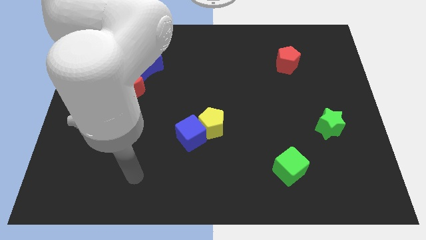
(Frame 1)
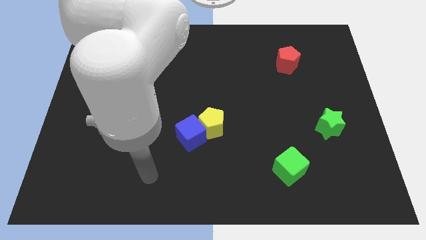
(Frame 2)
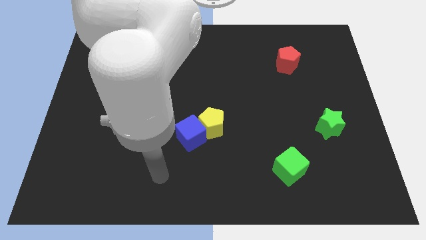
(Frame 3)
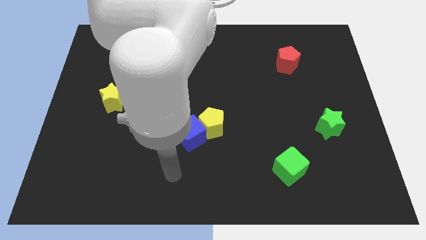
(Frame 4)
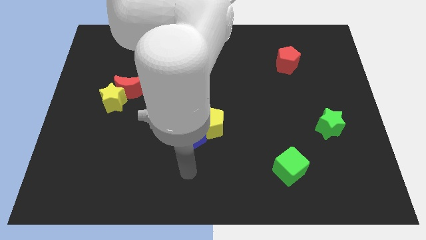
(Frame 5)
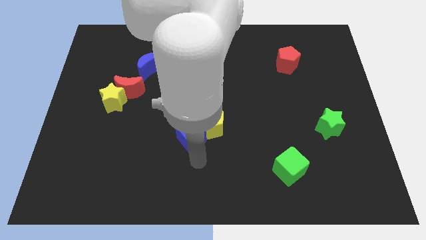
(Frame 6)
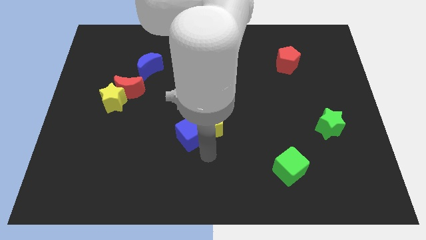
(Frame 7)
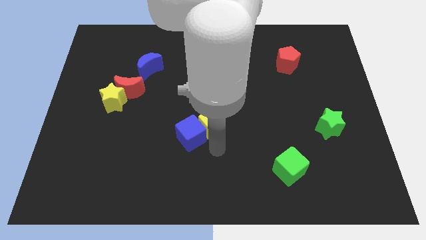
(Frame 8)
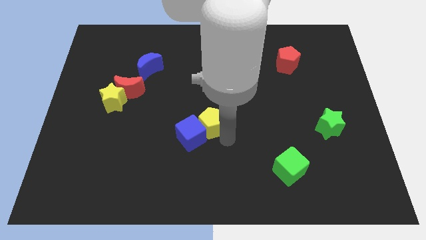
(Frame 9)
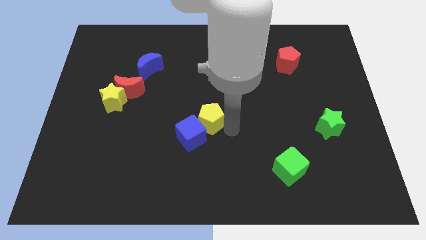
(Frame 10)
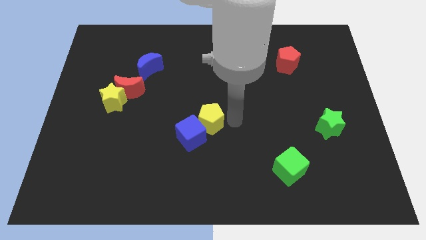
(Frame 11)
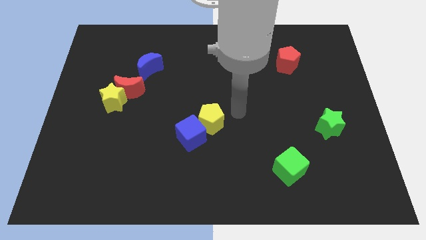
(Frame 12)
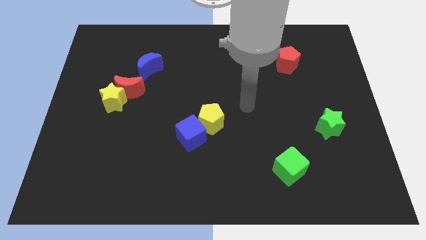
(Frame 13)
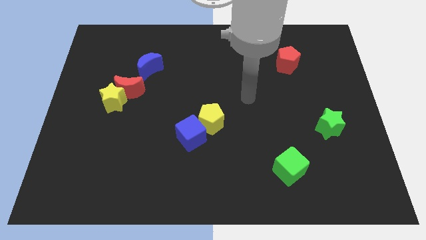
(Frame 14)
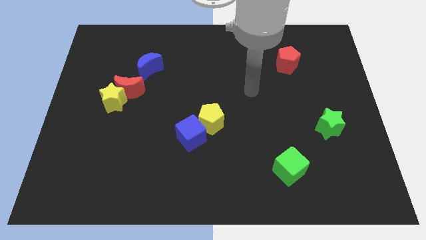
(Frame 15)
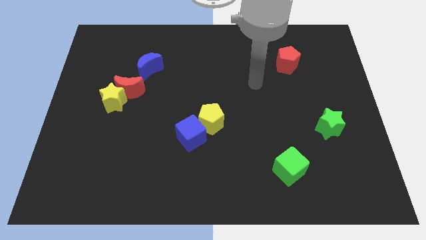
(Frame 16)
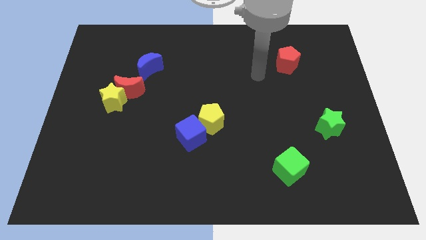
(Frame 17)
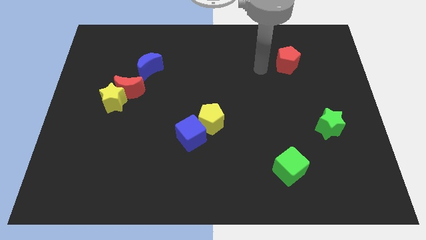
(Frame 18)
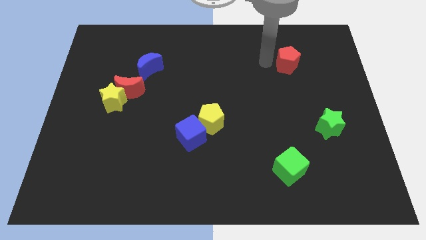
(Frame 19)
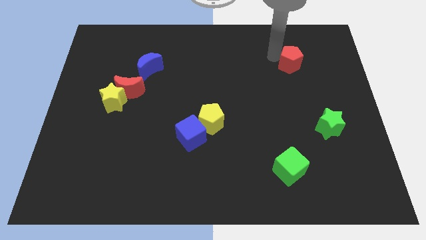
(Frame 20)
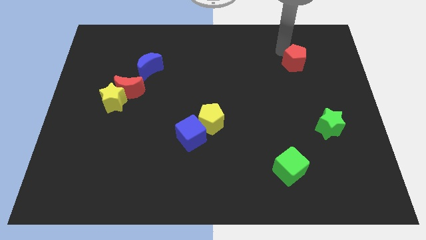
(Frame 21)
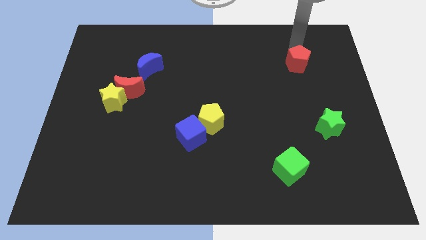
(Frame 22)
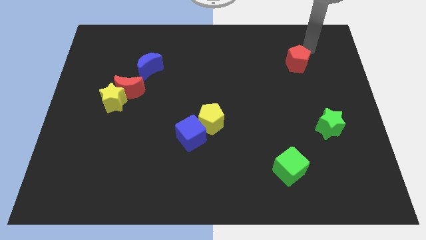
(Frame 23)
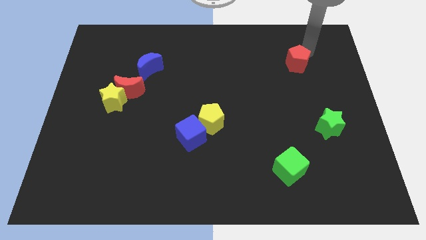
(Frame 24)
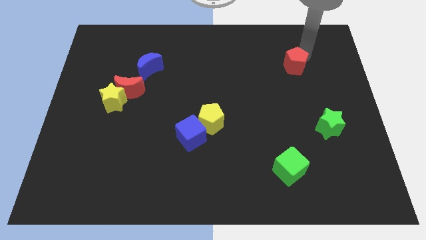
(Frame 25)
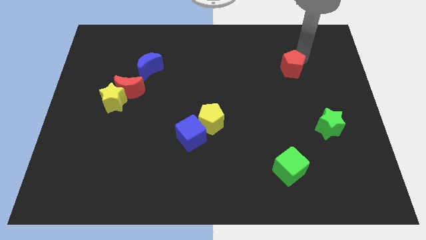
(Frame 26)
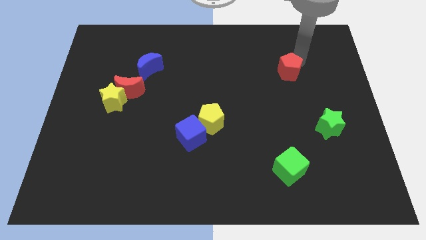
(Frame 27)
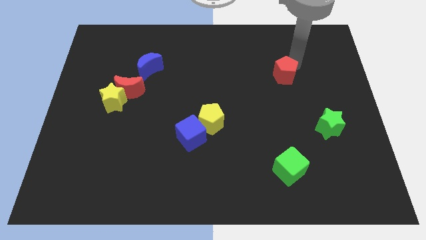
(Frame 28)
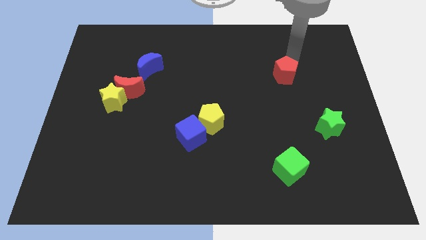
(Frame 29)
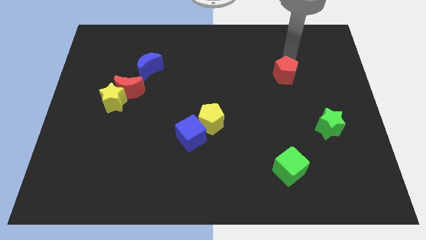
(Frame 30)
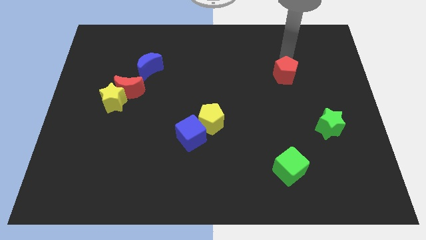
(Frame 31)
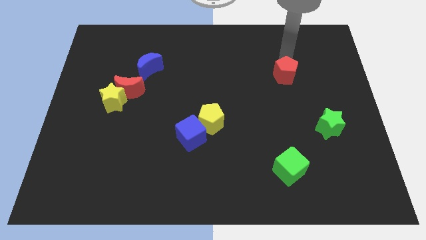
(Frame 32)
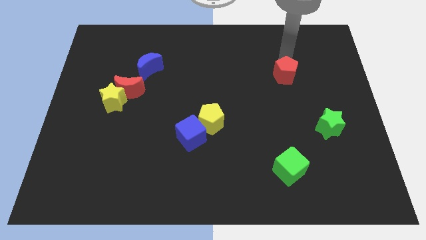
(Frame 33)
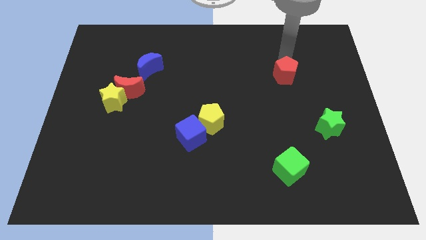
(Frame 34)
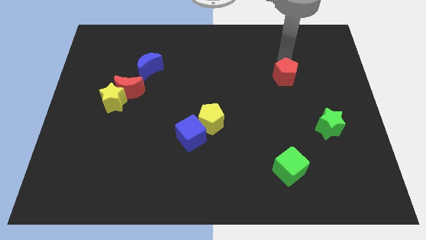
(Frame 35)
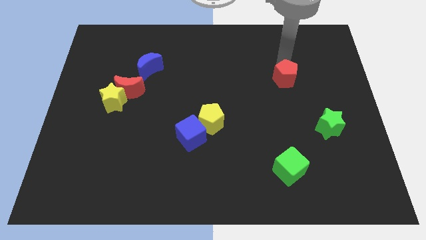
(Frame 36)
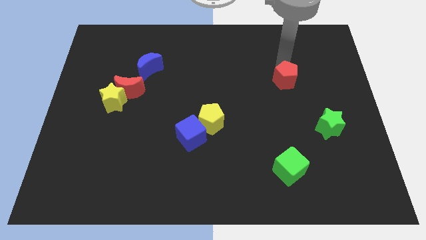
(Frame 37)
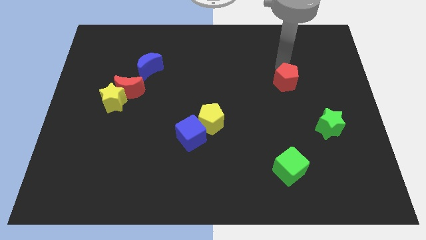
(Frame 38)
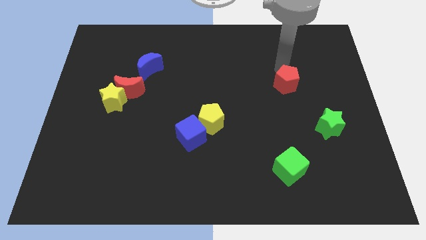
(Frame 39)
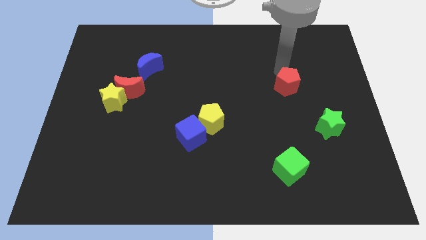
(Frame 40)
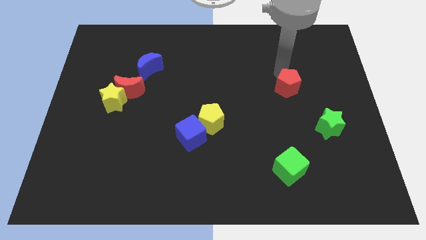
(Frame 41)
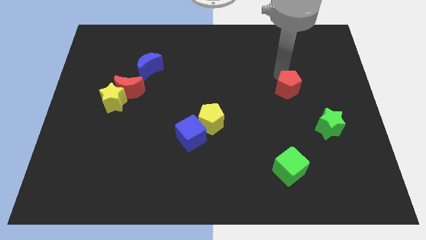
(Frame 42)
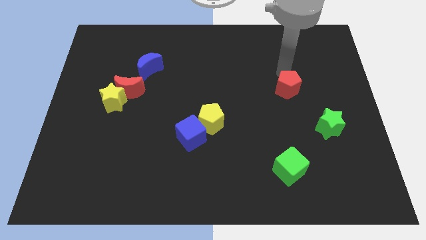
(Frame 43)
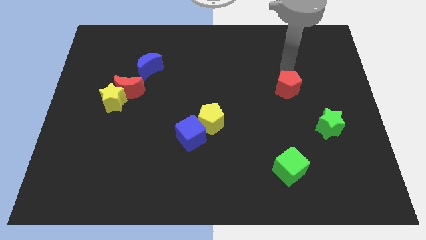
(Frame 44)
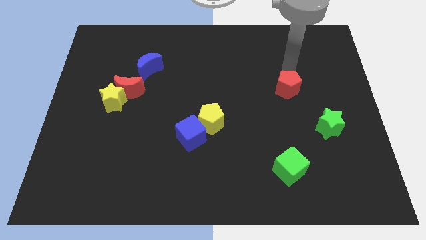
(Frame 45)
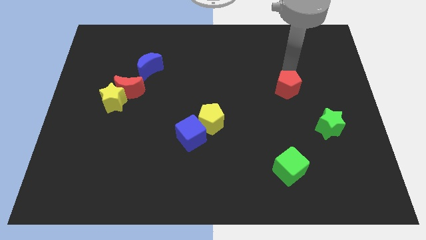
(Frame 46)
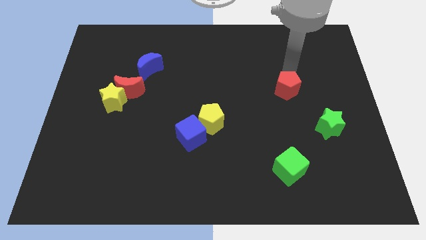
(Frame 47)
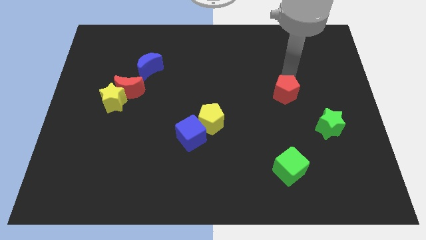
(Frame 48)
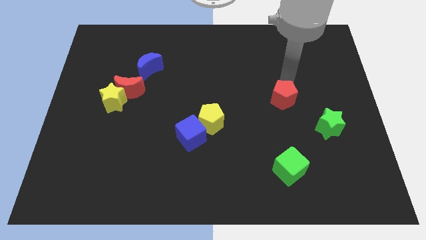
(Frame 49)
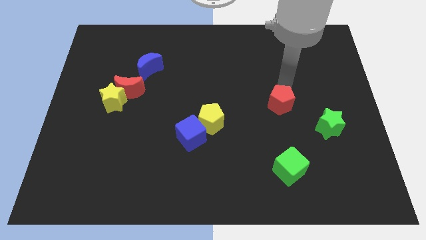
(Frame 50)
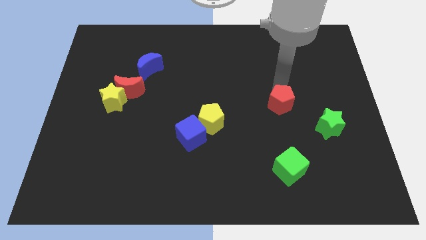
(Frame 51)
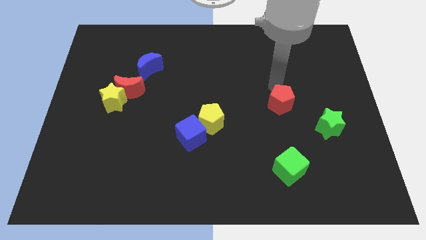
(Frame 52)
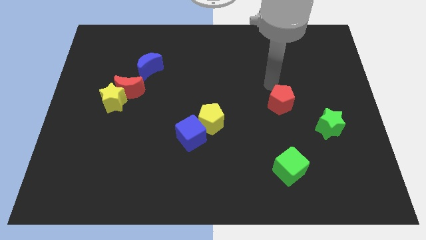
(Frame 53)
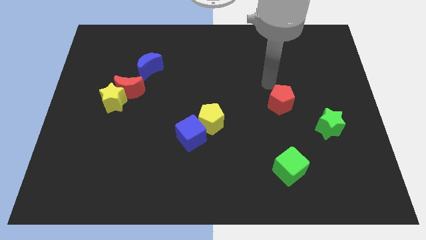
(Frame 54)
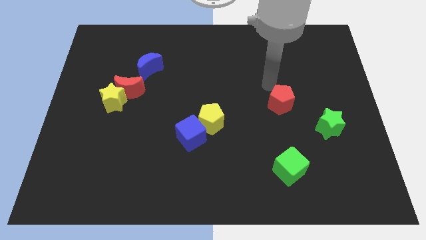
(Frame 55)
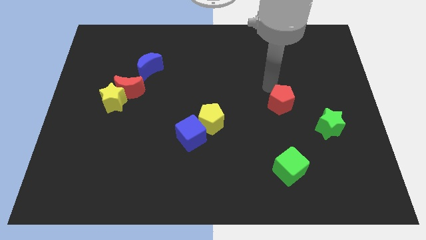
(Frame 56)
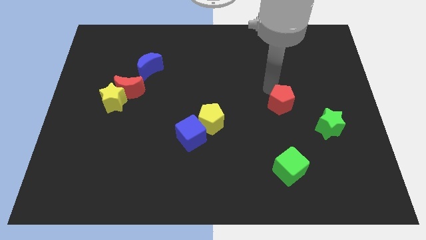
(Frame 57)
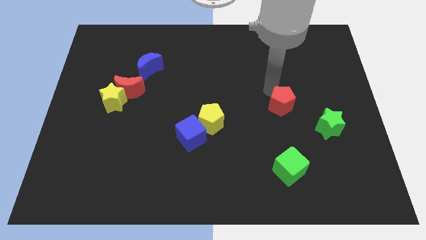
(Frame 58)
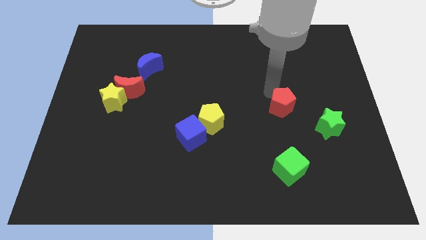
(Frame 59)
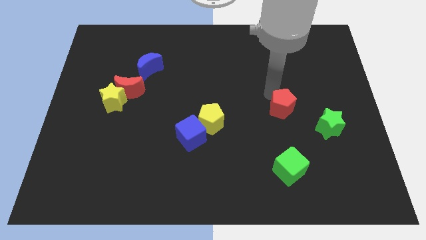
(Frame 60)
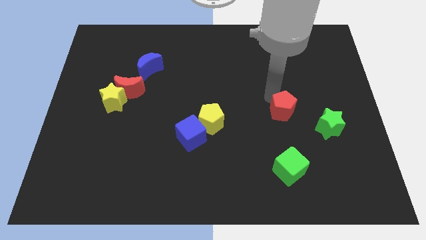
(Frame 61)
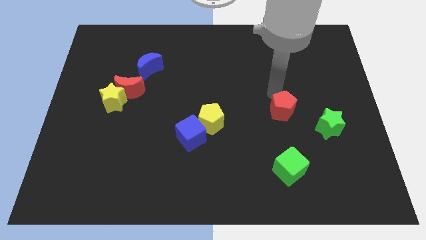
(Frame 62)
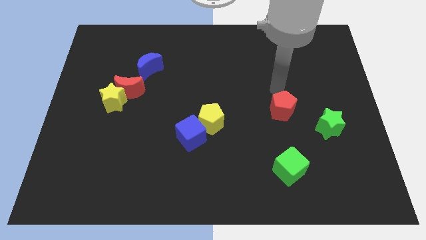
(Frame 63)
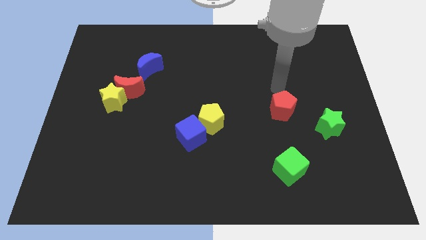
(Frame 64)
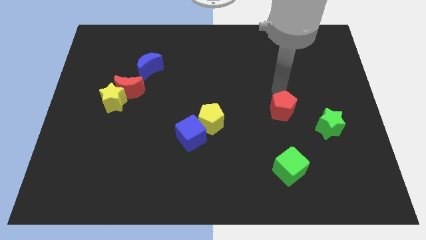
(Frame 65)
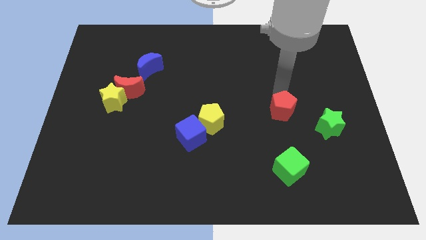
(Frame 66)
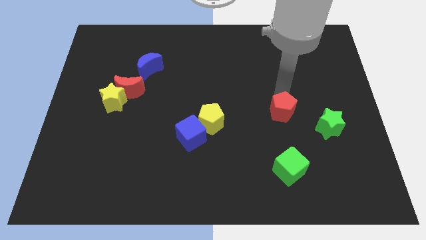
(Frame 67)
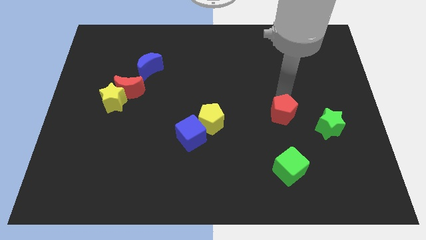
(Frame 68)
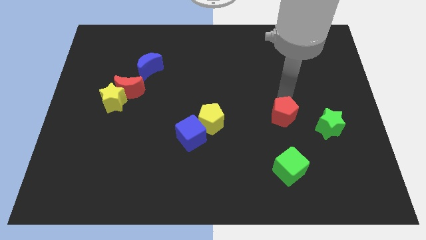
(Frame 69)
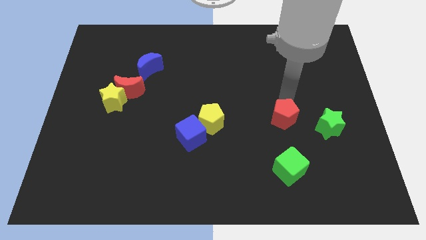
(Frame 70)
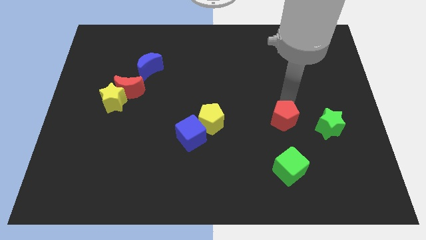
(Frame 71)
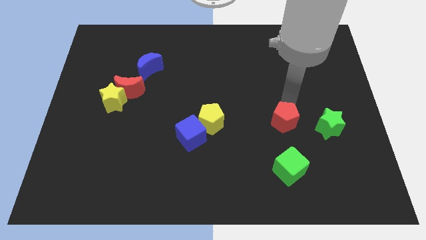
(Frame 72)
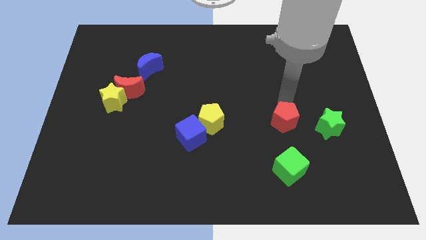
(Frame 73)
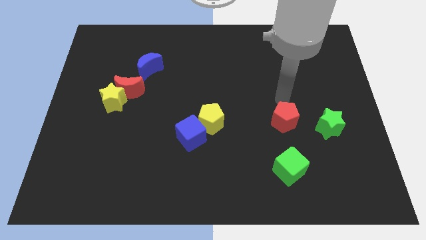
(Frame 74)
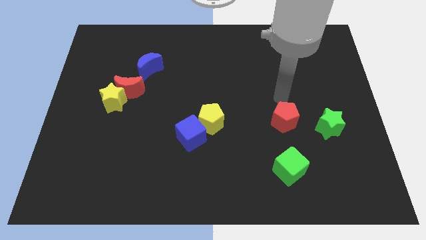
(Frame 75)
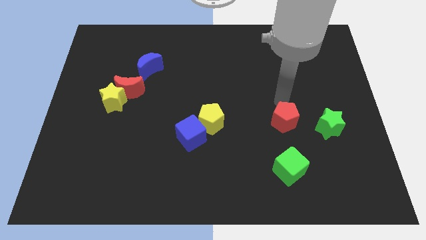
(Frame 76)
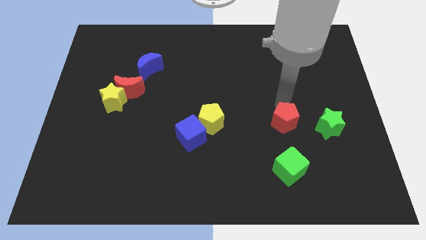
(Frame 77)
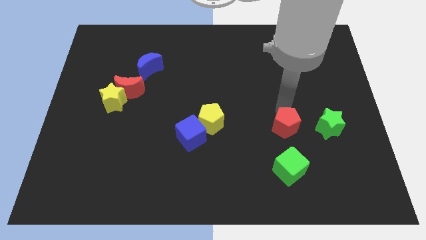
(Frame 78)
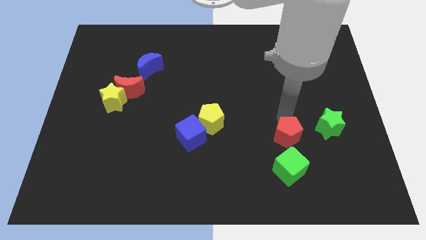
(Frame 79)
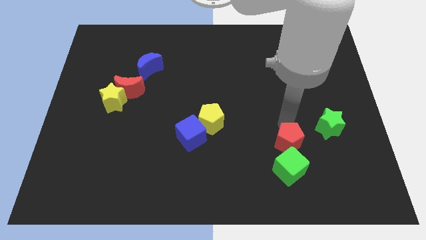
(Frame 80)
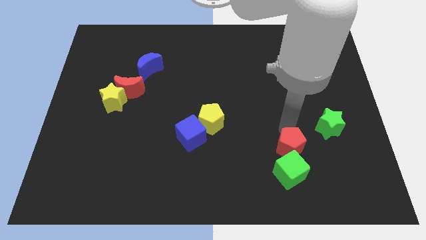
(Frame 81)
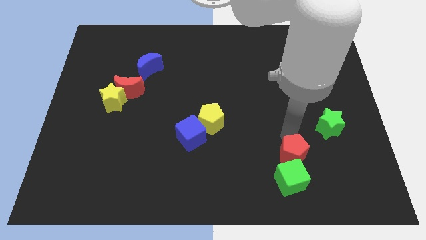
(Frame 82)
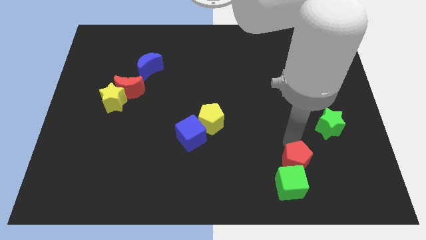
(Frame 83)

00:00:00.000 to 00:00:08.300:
put the red pentagon towards the green cube
